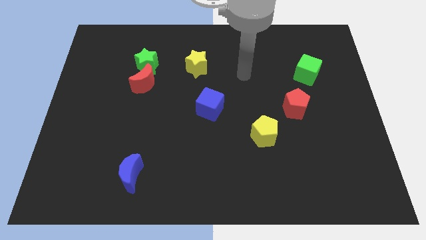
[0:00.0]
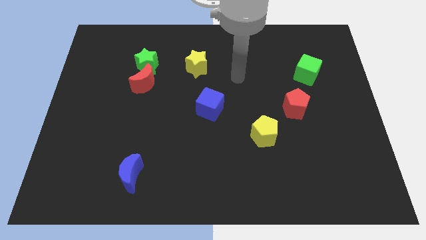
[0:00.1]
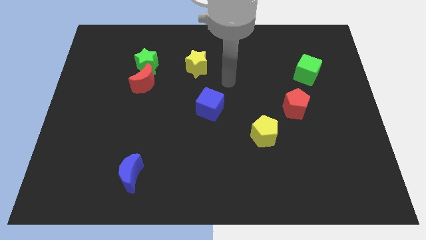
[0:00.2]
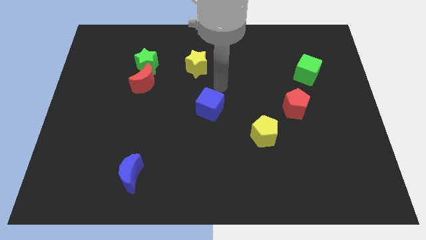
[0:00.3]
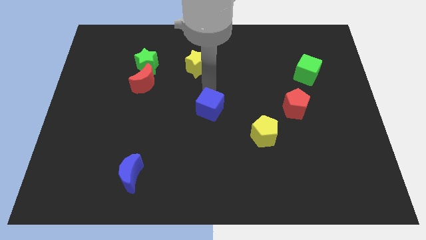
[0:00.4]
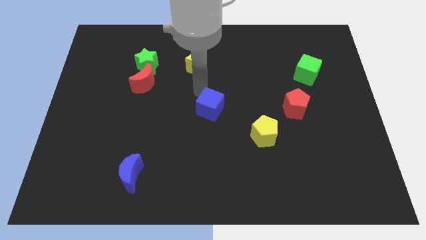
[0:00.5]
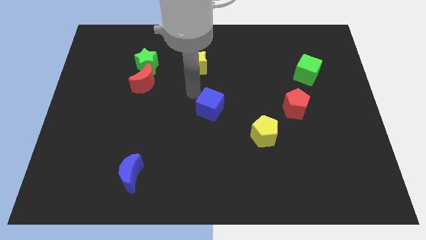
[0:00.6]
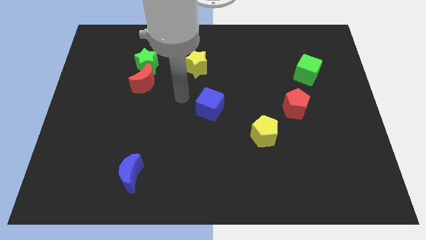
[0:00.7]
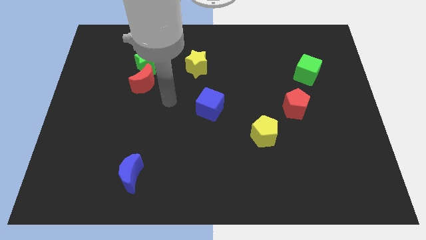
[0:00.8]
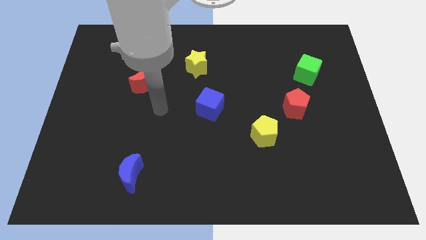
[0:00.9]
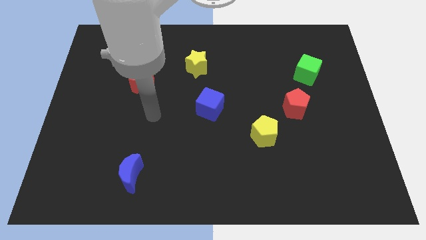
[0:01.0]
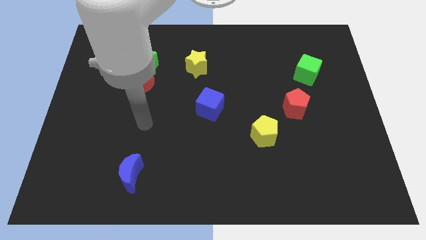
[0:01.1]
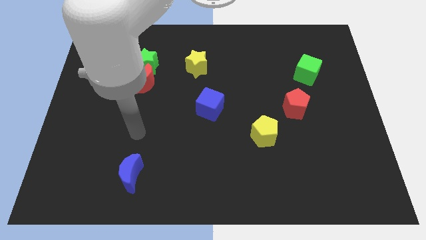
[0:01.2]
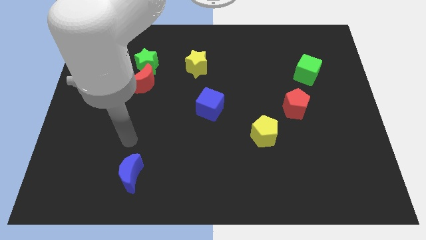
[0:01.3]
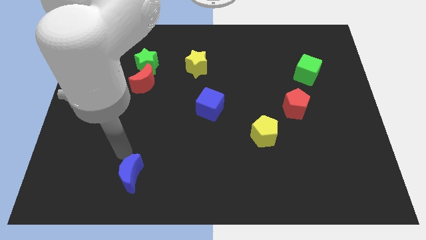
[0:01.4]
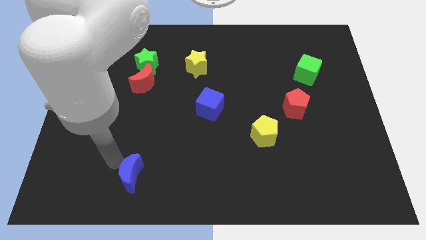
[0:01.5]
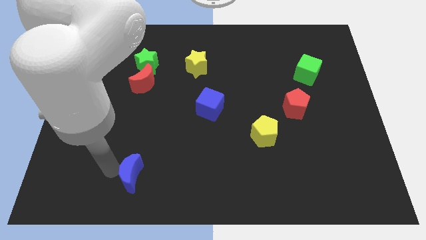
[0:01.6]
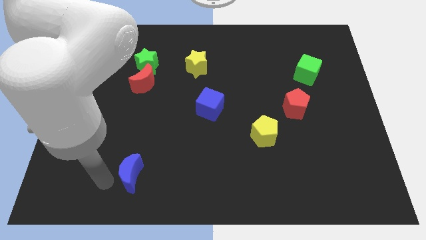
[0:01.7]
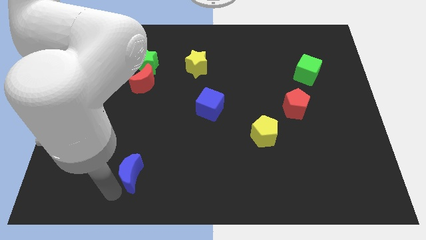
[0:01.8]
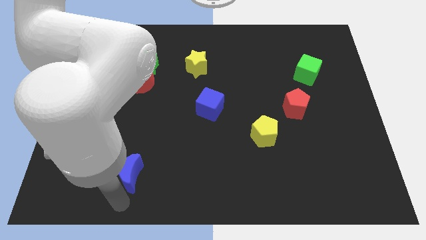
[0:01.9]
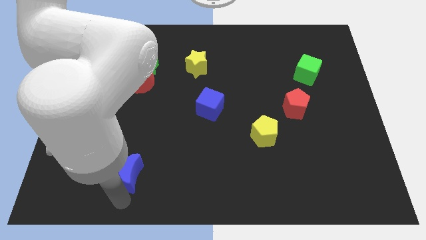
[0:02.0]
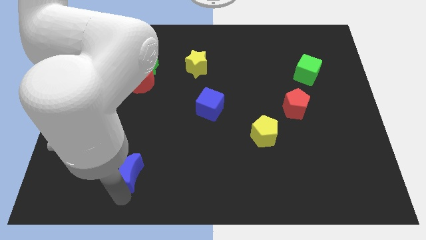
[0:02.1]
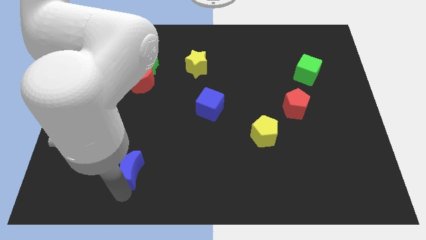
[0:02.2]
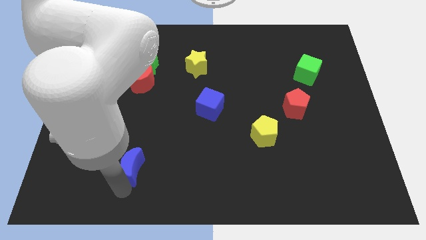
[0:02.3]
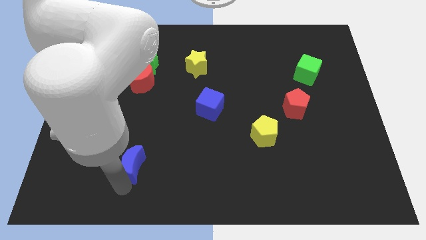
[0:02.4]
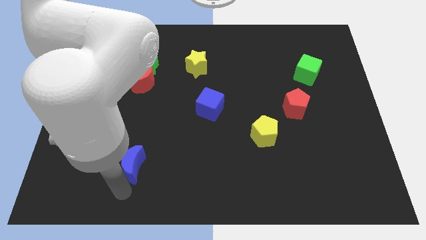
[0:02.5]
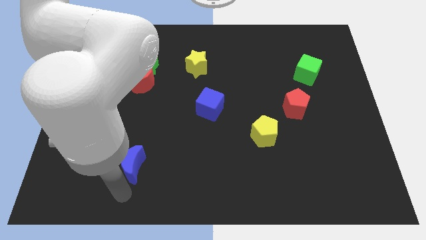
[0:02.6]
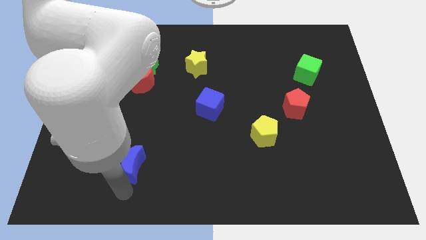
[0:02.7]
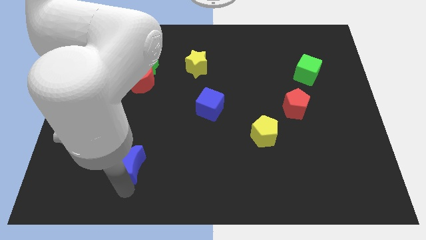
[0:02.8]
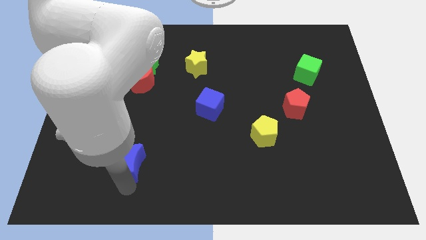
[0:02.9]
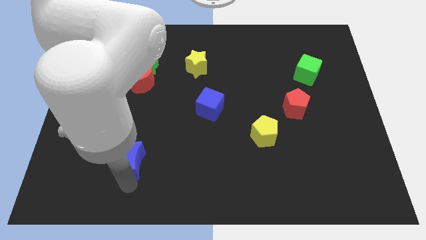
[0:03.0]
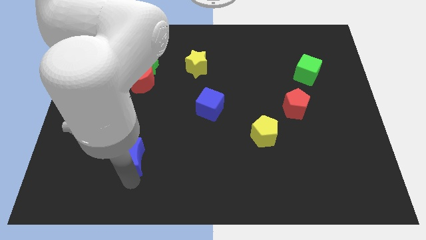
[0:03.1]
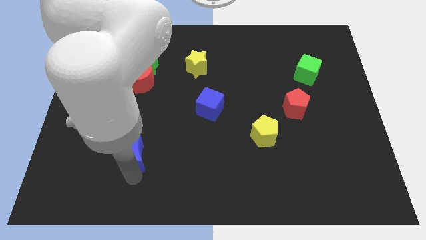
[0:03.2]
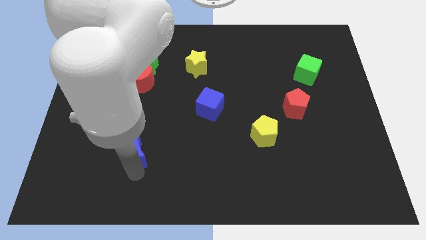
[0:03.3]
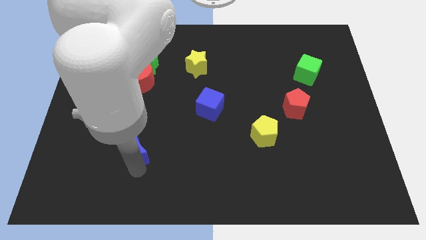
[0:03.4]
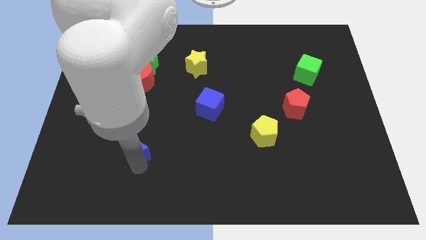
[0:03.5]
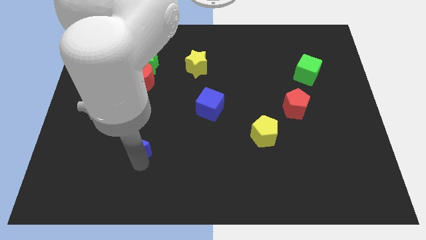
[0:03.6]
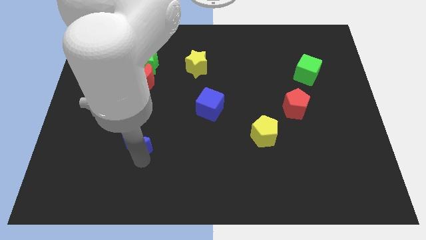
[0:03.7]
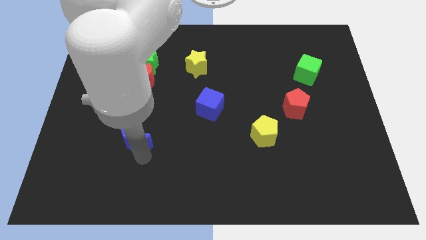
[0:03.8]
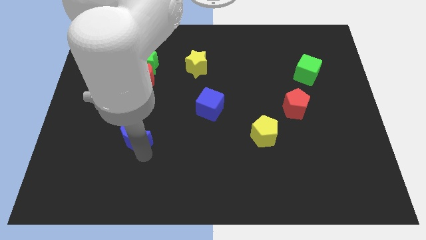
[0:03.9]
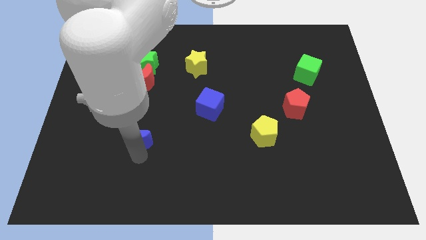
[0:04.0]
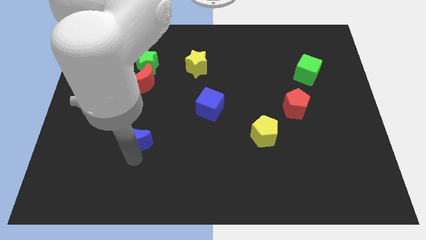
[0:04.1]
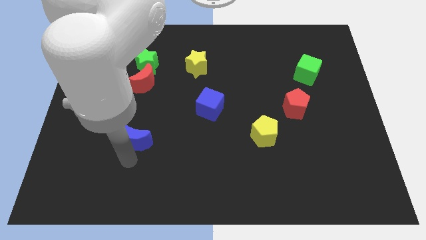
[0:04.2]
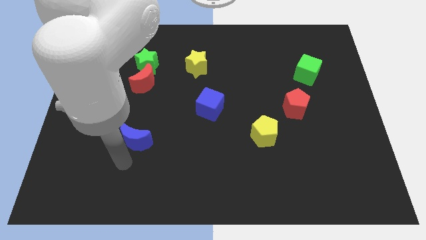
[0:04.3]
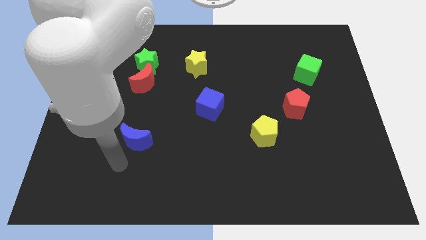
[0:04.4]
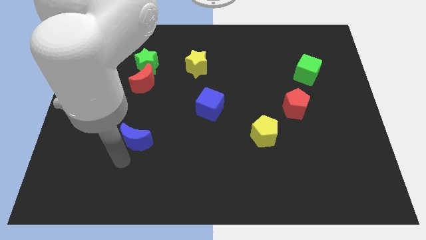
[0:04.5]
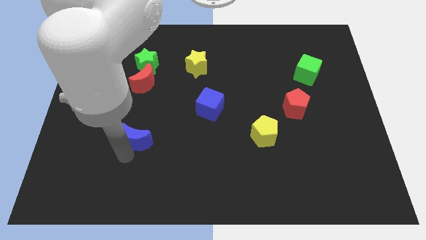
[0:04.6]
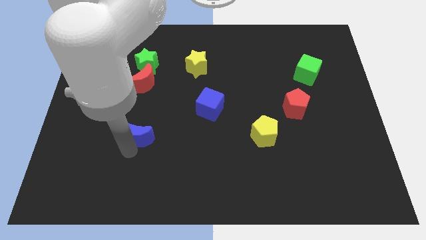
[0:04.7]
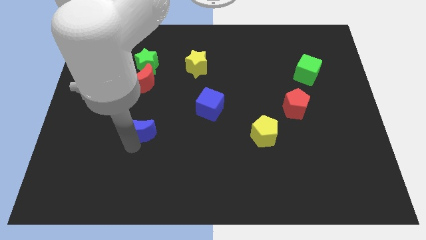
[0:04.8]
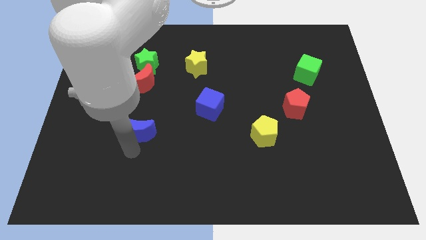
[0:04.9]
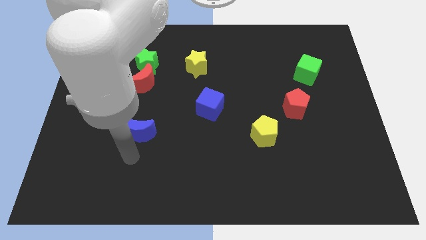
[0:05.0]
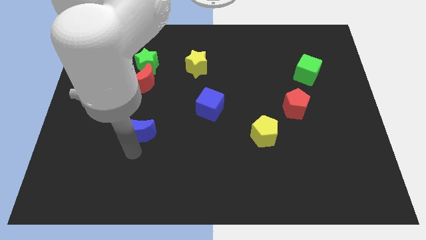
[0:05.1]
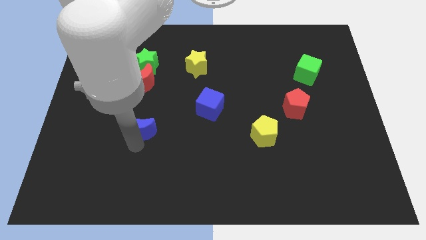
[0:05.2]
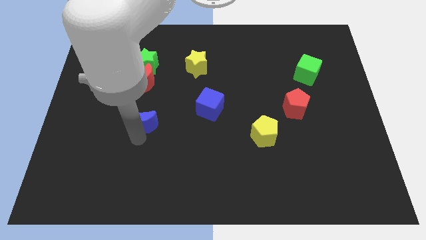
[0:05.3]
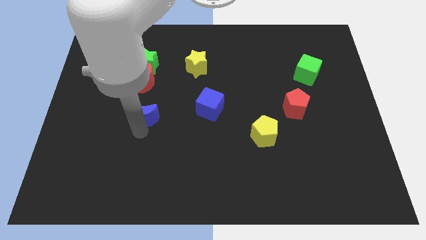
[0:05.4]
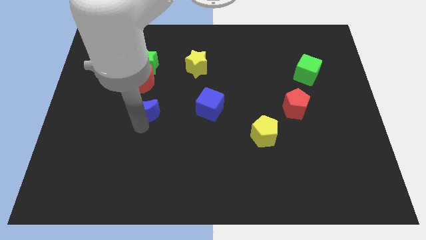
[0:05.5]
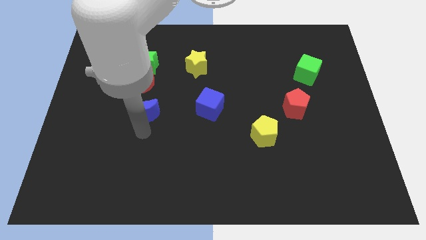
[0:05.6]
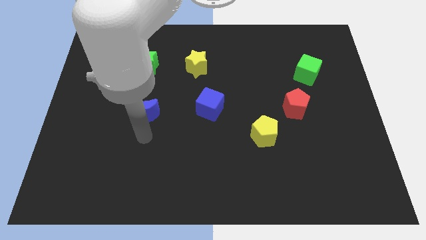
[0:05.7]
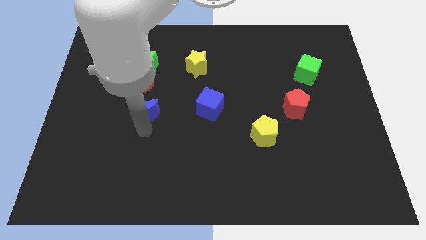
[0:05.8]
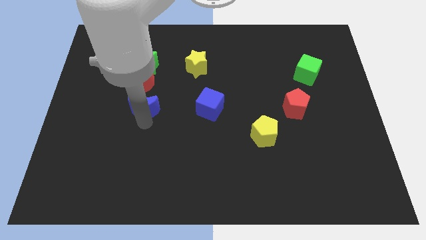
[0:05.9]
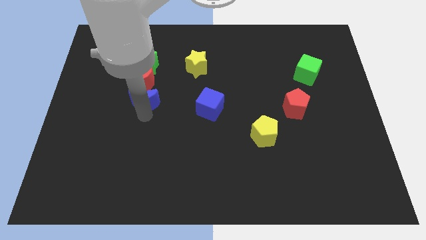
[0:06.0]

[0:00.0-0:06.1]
push the blue moon to the red moon

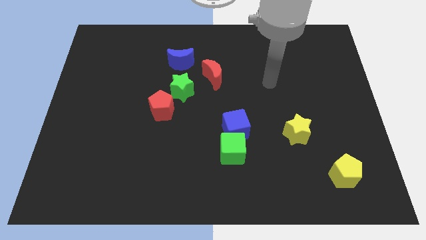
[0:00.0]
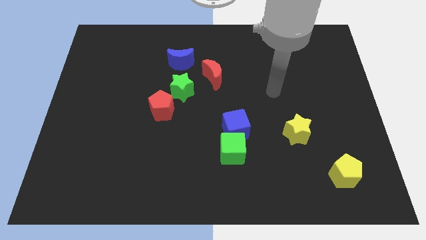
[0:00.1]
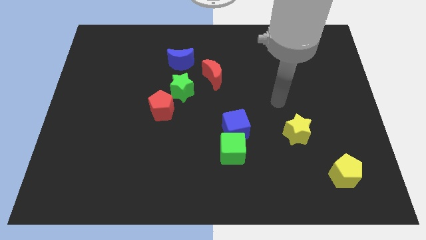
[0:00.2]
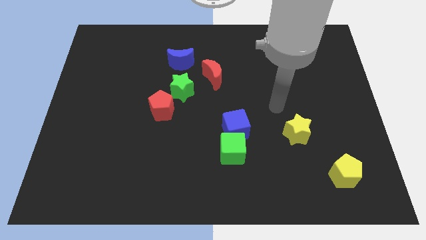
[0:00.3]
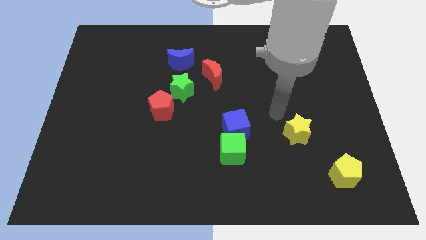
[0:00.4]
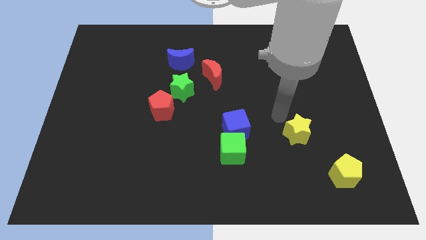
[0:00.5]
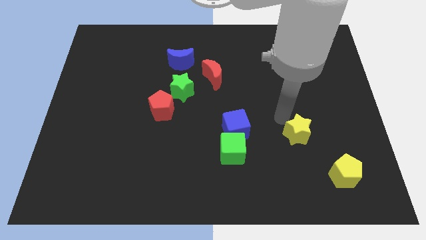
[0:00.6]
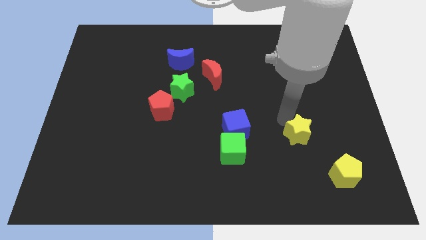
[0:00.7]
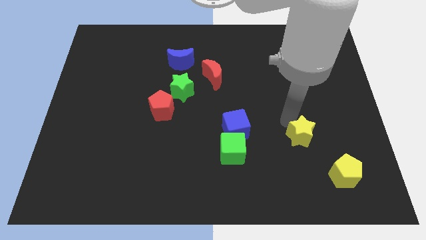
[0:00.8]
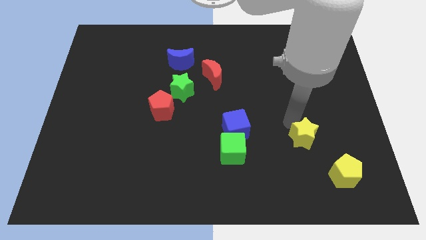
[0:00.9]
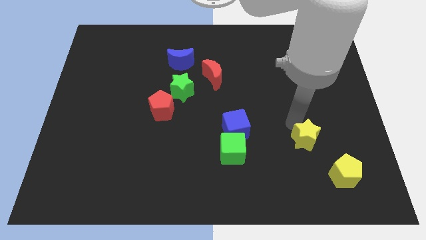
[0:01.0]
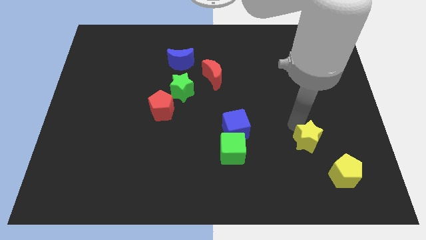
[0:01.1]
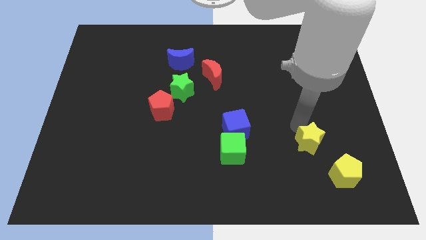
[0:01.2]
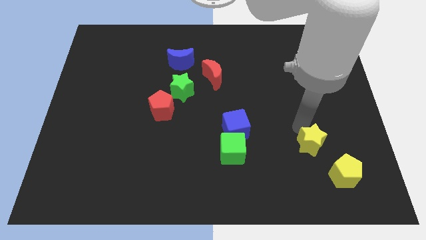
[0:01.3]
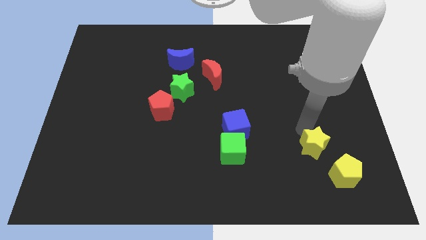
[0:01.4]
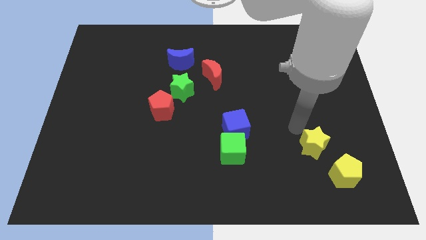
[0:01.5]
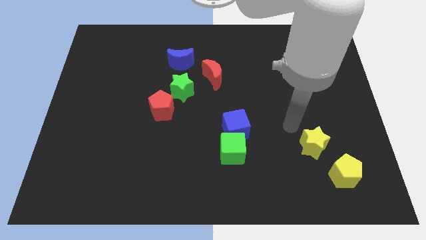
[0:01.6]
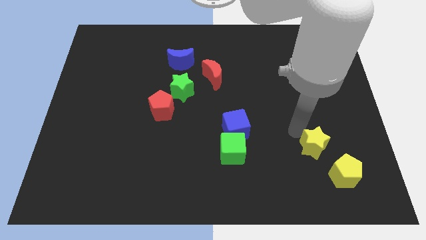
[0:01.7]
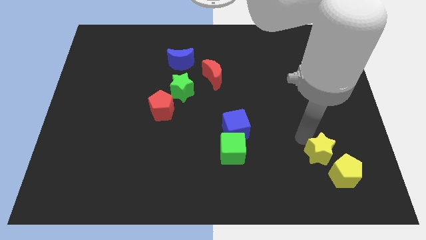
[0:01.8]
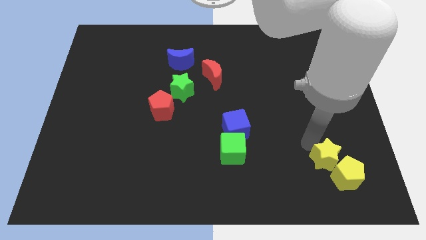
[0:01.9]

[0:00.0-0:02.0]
push the yellow star to the yellow pentagon
